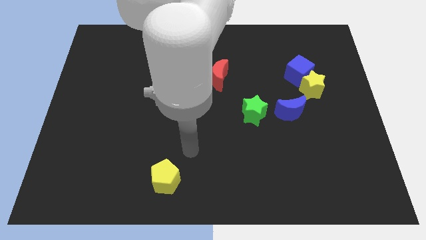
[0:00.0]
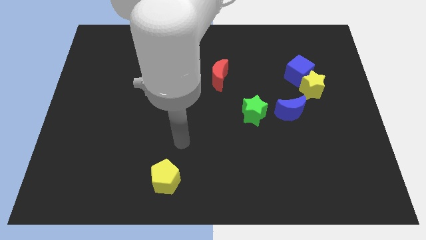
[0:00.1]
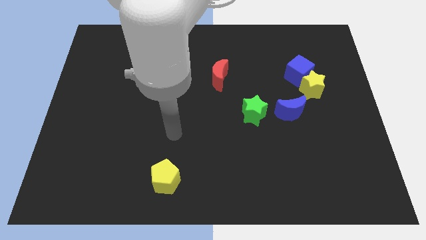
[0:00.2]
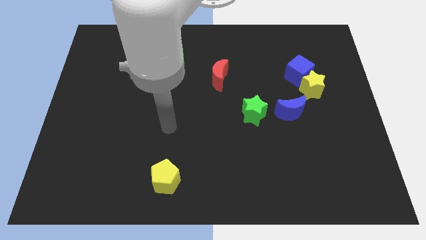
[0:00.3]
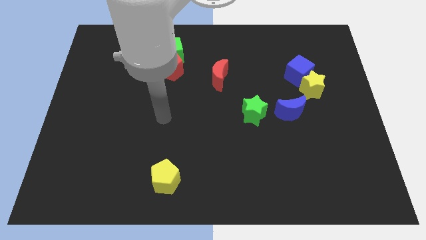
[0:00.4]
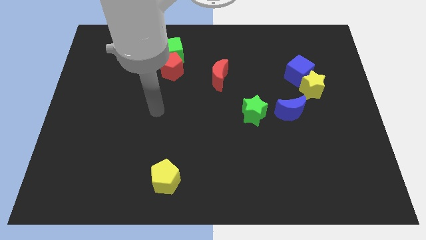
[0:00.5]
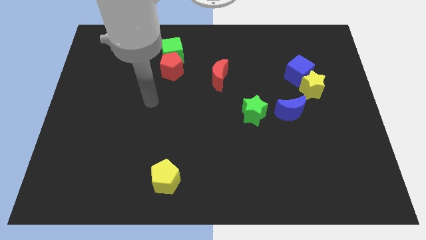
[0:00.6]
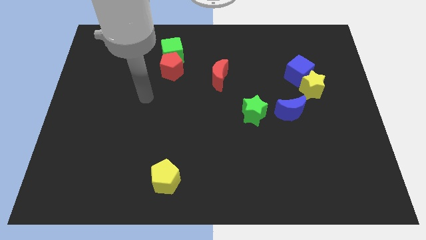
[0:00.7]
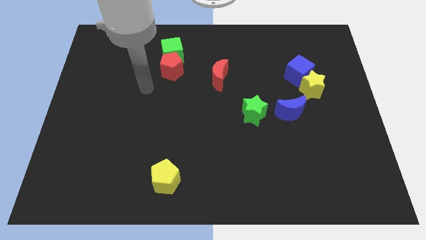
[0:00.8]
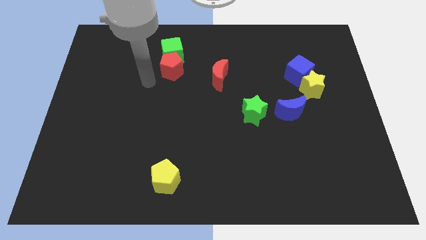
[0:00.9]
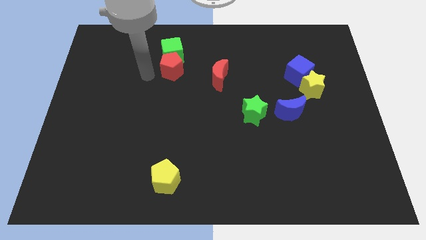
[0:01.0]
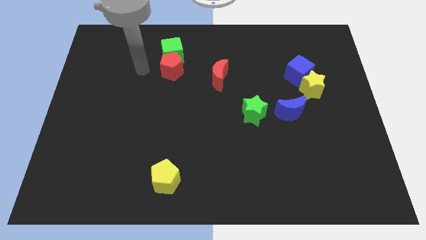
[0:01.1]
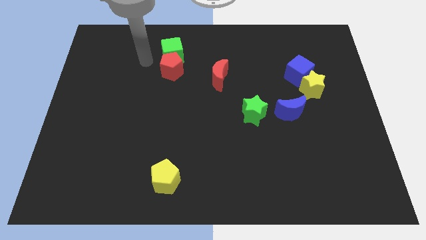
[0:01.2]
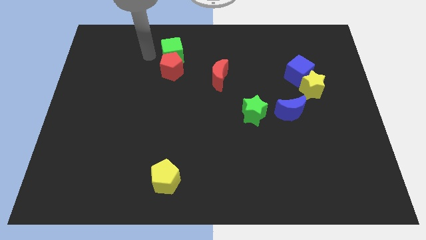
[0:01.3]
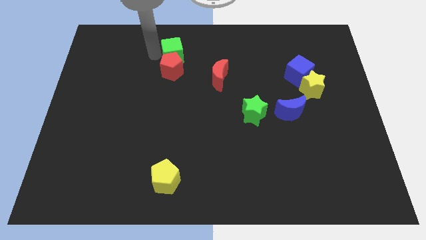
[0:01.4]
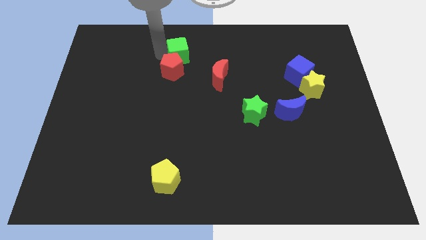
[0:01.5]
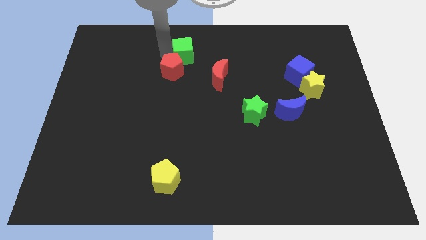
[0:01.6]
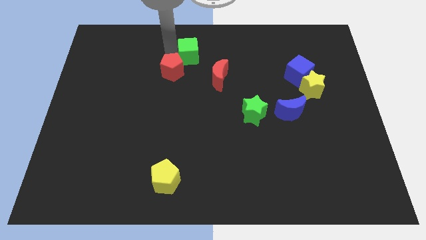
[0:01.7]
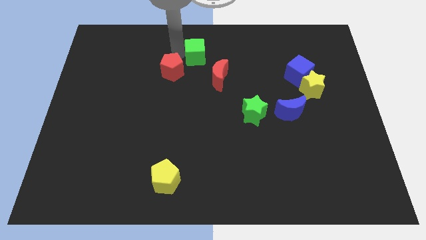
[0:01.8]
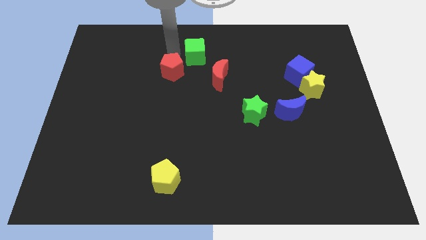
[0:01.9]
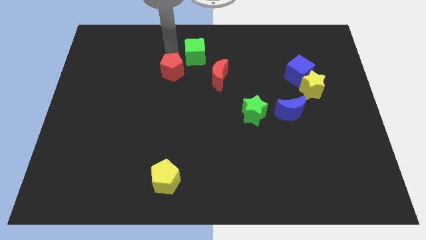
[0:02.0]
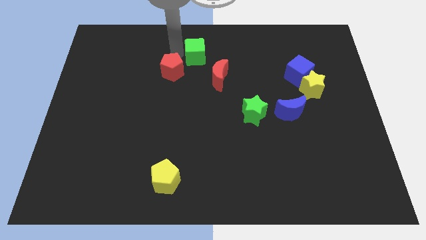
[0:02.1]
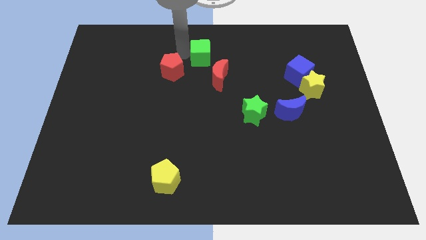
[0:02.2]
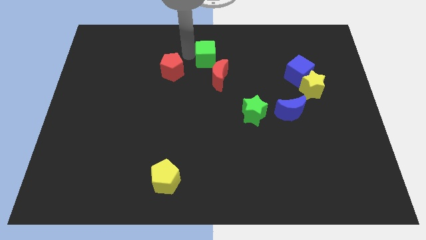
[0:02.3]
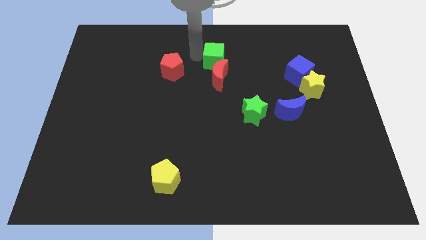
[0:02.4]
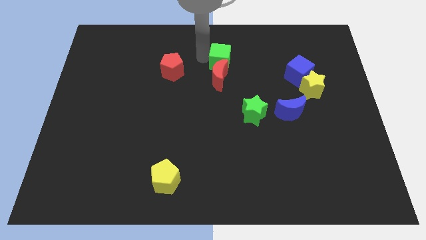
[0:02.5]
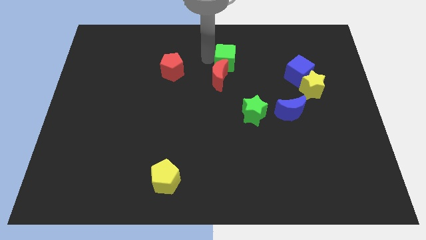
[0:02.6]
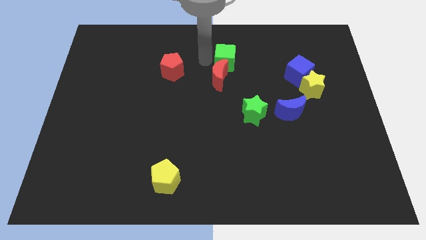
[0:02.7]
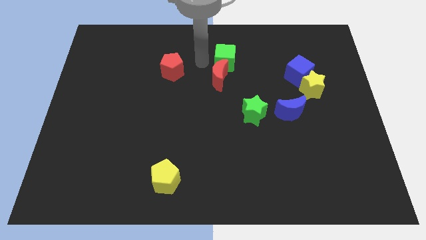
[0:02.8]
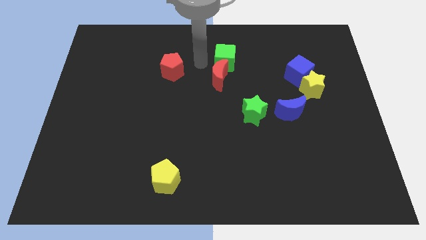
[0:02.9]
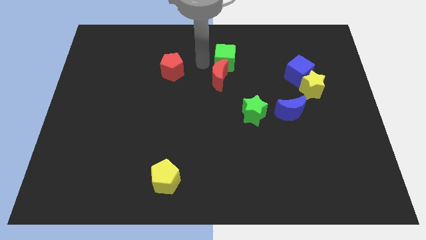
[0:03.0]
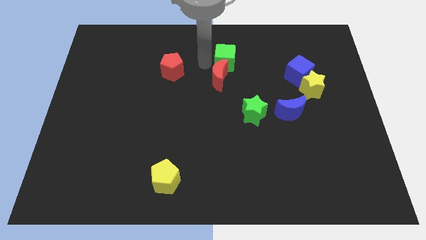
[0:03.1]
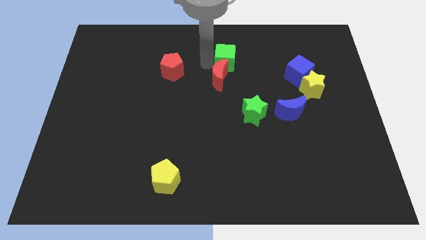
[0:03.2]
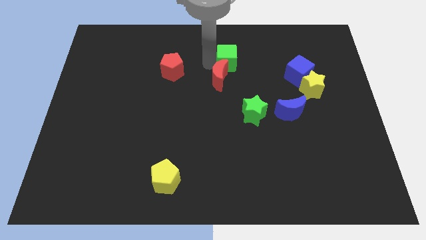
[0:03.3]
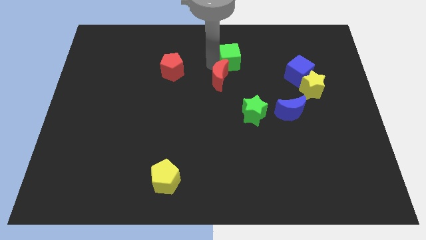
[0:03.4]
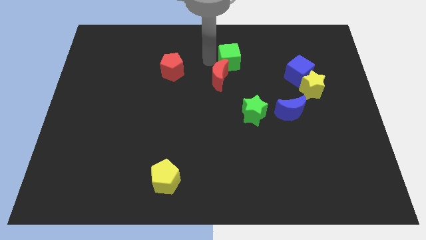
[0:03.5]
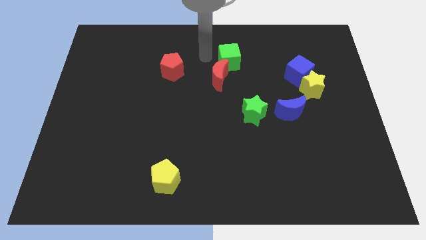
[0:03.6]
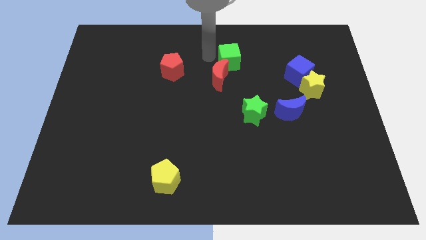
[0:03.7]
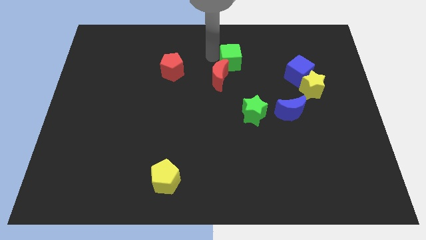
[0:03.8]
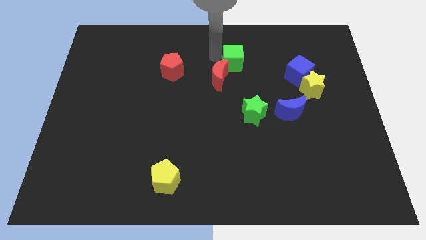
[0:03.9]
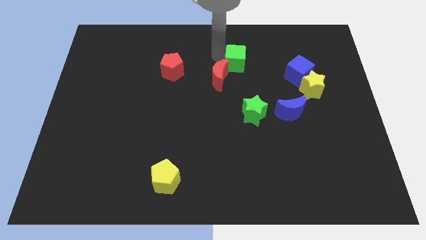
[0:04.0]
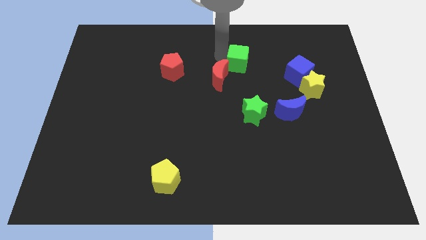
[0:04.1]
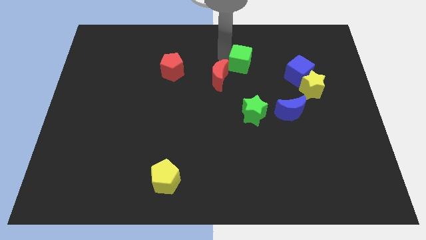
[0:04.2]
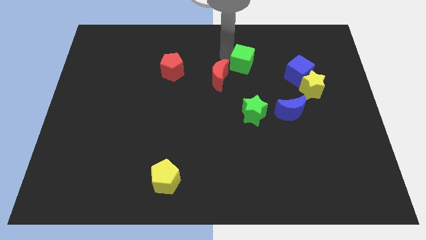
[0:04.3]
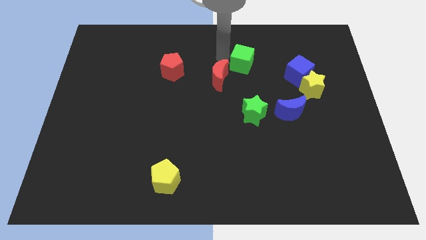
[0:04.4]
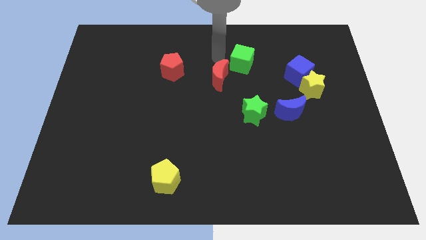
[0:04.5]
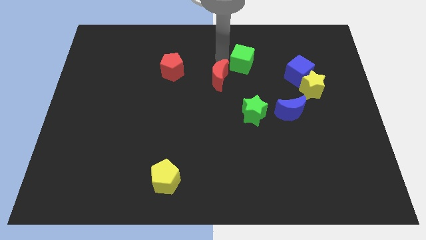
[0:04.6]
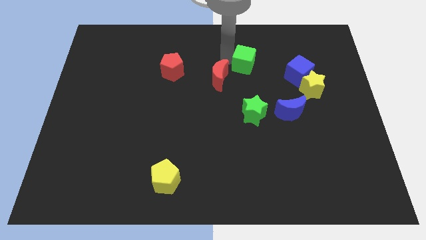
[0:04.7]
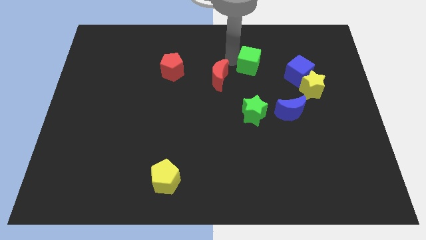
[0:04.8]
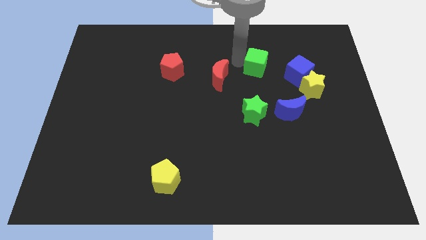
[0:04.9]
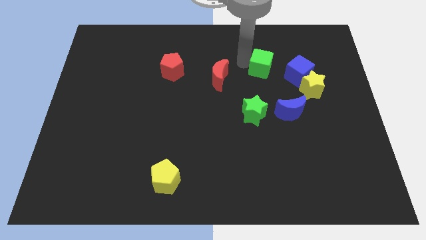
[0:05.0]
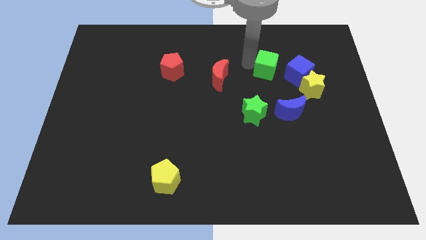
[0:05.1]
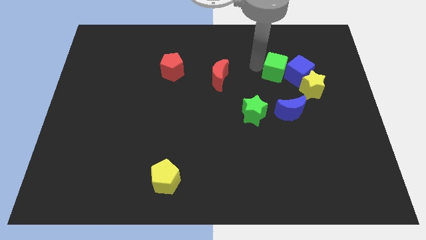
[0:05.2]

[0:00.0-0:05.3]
slide the green cube close to the blue cube

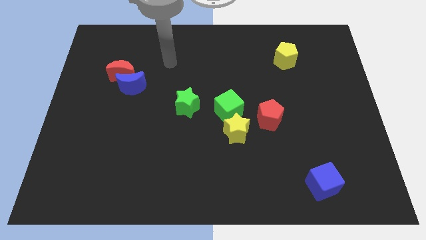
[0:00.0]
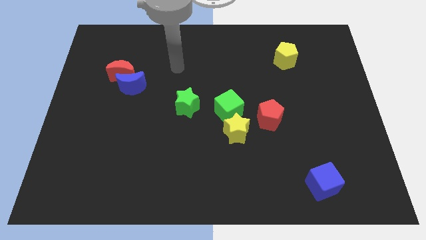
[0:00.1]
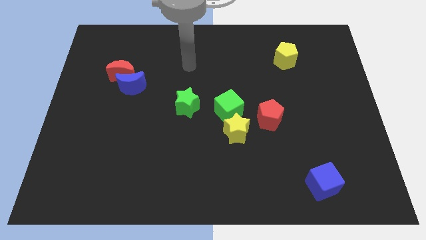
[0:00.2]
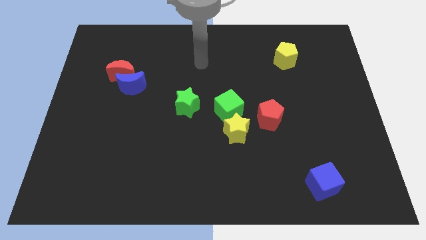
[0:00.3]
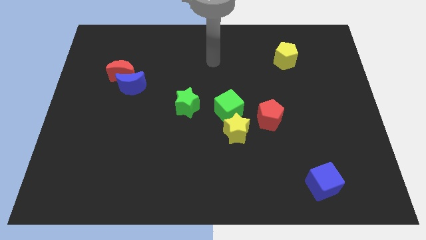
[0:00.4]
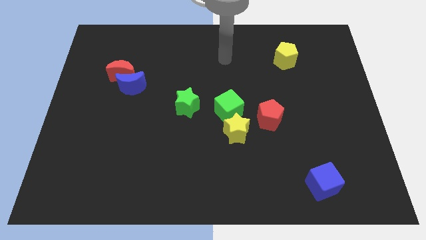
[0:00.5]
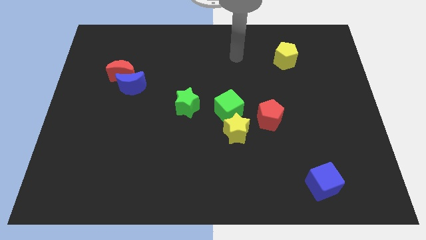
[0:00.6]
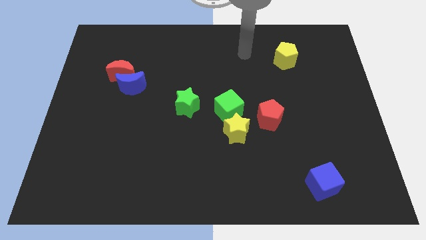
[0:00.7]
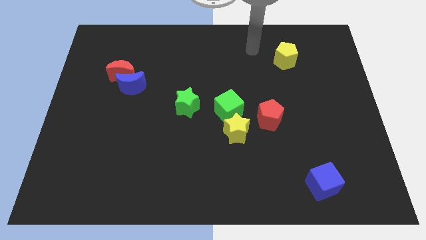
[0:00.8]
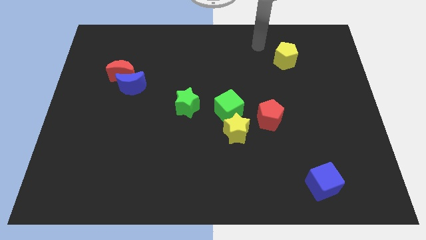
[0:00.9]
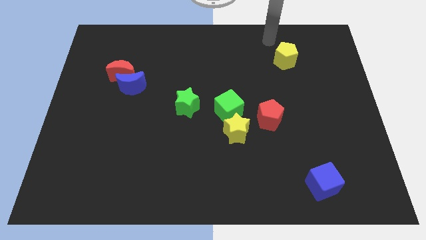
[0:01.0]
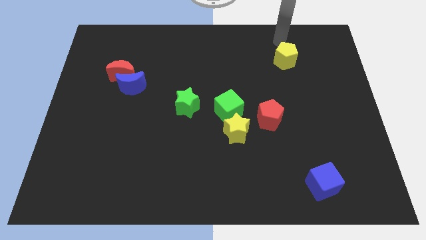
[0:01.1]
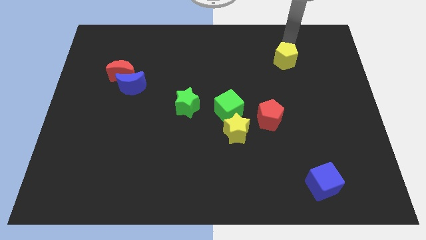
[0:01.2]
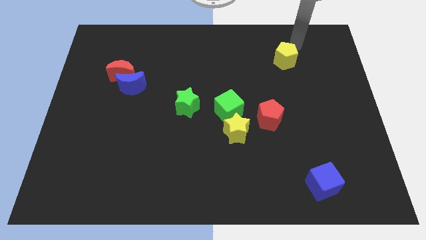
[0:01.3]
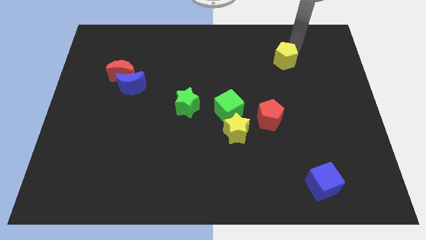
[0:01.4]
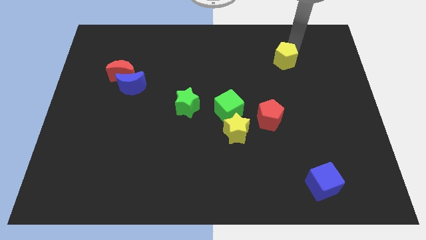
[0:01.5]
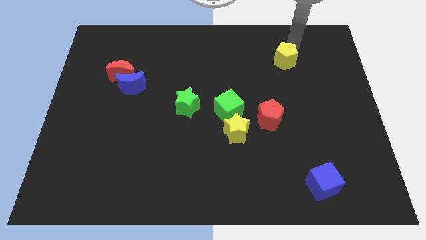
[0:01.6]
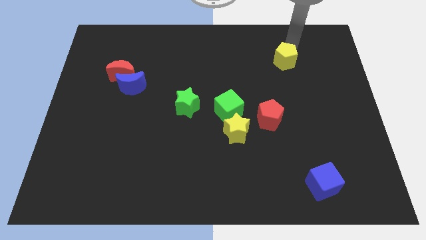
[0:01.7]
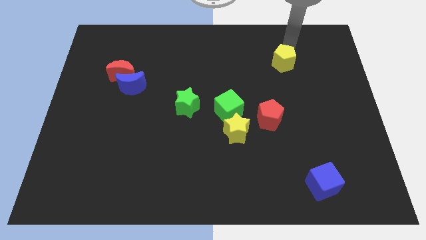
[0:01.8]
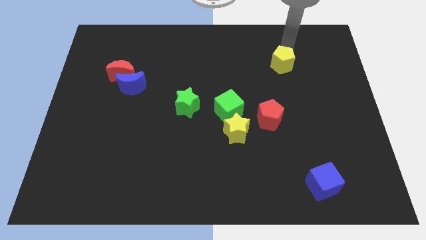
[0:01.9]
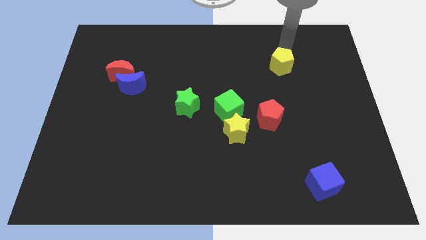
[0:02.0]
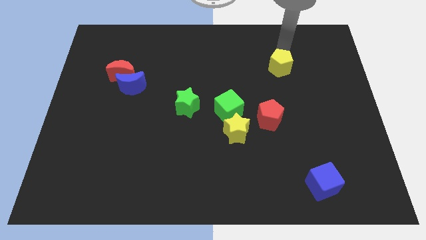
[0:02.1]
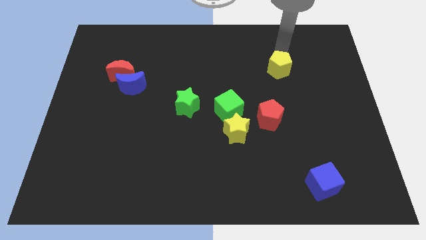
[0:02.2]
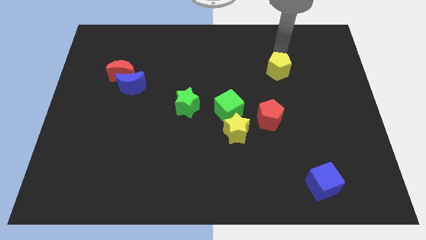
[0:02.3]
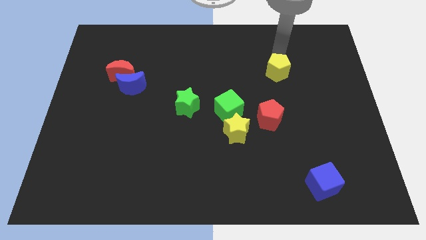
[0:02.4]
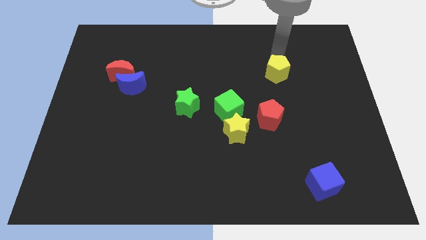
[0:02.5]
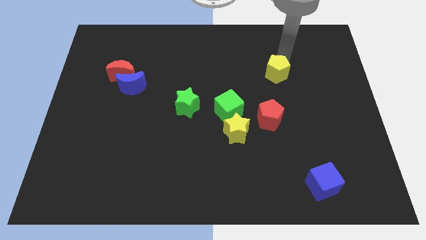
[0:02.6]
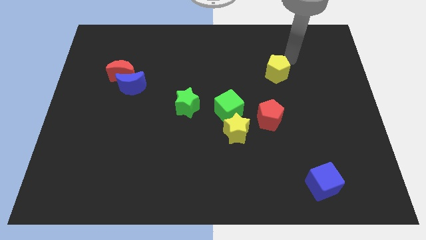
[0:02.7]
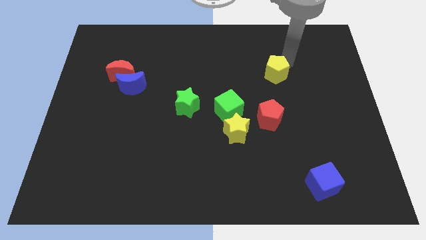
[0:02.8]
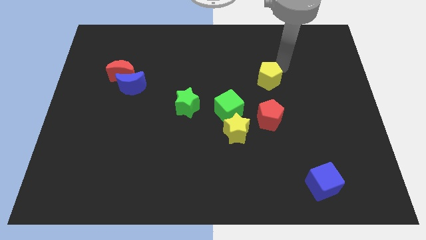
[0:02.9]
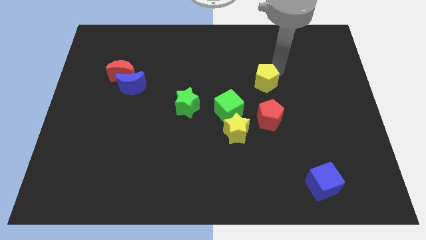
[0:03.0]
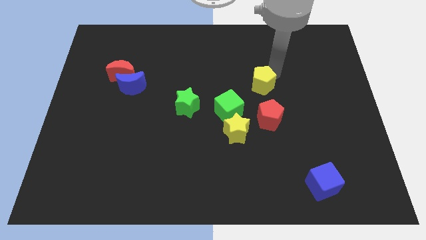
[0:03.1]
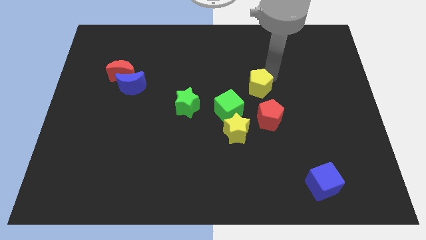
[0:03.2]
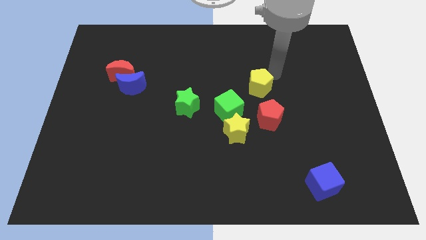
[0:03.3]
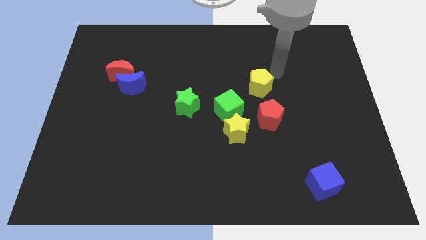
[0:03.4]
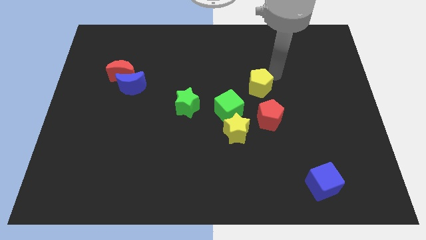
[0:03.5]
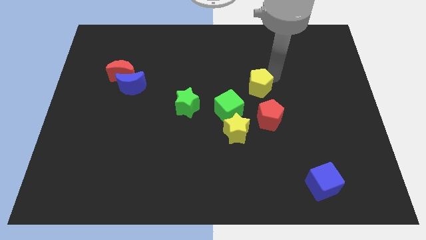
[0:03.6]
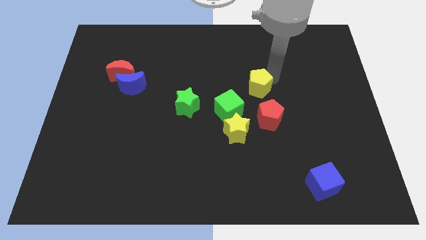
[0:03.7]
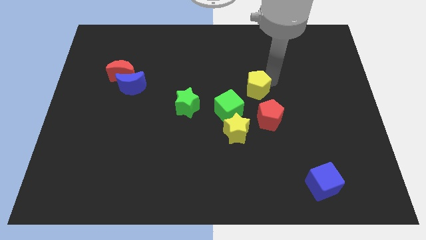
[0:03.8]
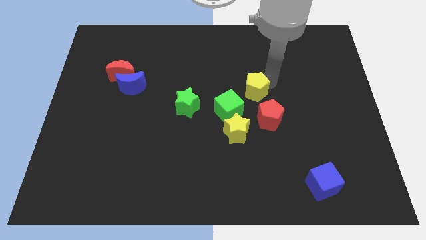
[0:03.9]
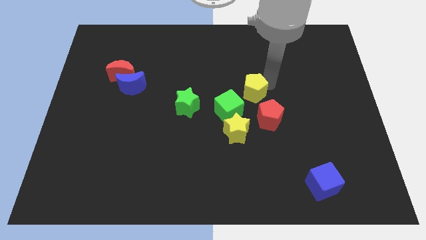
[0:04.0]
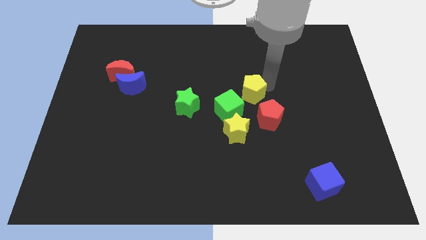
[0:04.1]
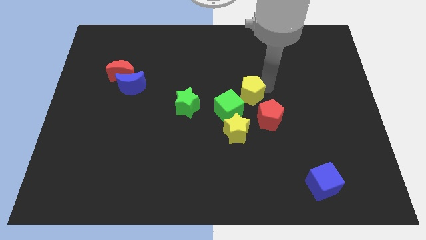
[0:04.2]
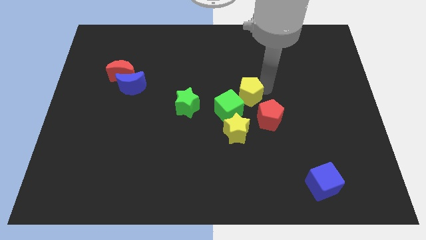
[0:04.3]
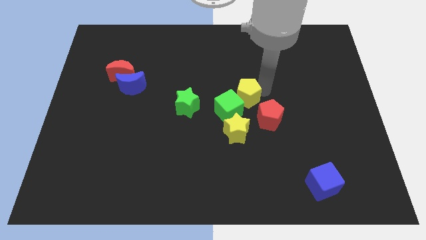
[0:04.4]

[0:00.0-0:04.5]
slide the yellow pentagon close to the green cube
